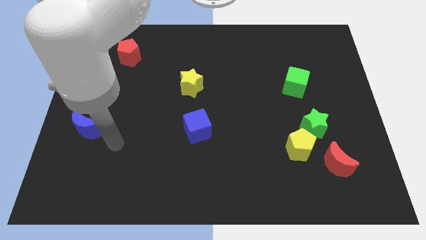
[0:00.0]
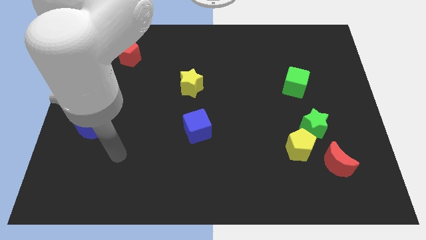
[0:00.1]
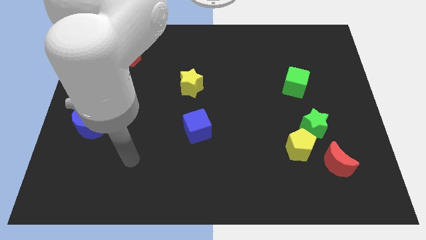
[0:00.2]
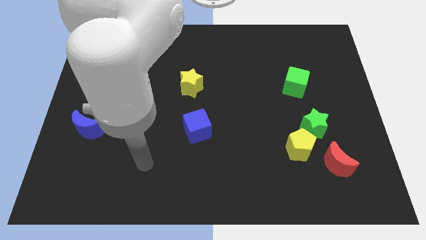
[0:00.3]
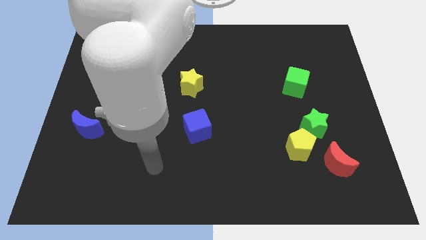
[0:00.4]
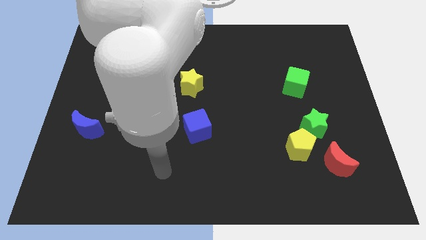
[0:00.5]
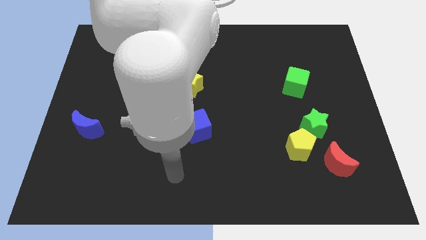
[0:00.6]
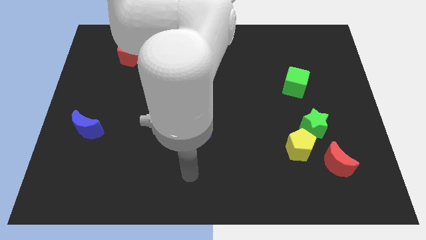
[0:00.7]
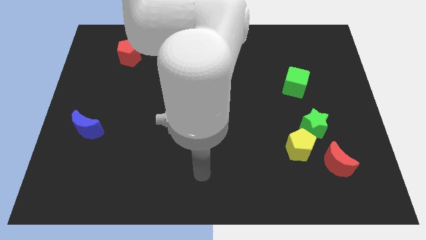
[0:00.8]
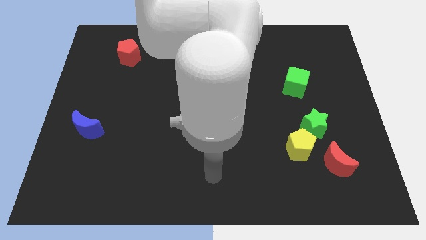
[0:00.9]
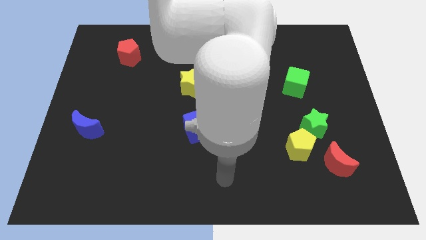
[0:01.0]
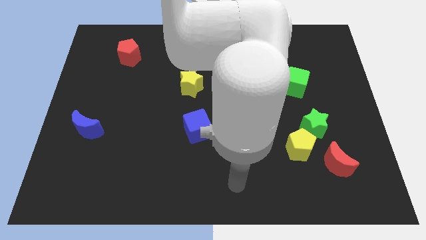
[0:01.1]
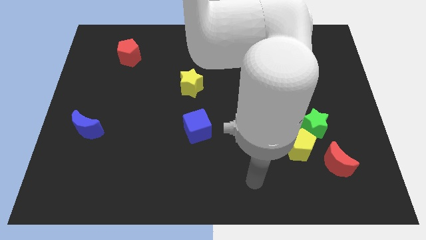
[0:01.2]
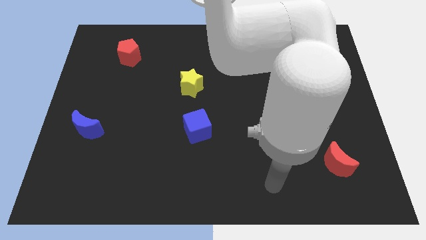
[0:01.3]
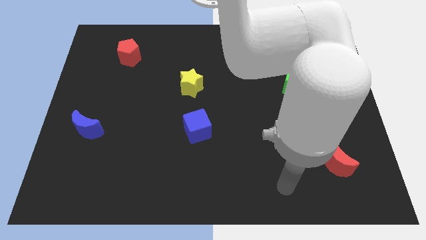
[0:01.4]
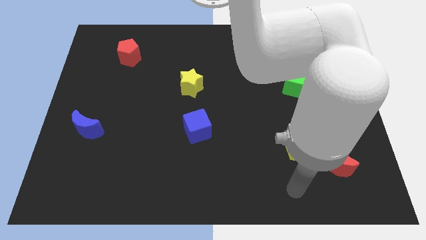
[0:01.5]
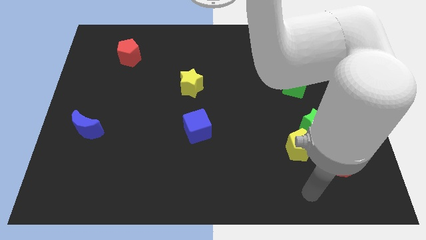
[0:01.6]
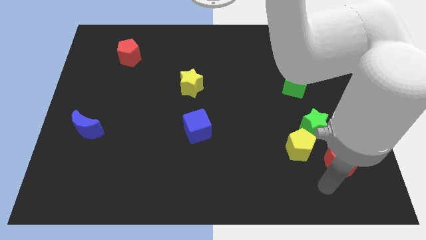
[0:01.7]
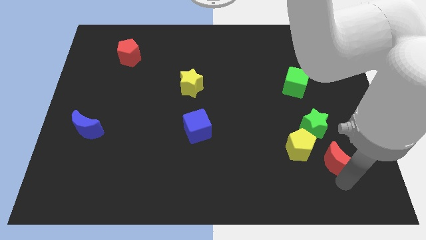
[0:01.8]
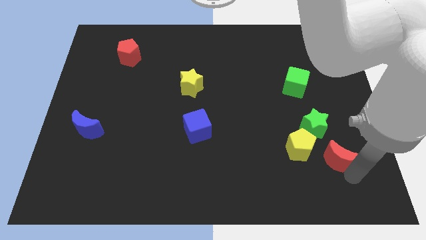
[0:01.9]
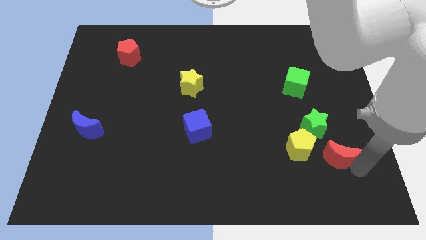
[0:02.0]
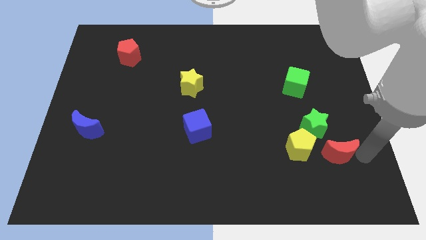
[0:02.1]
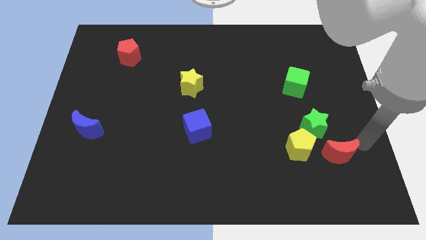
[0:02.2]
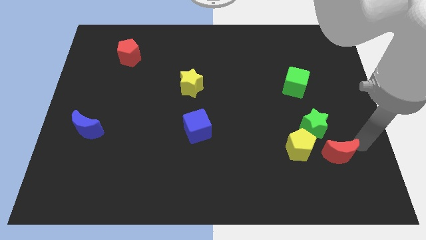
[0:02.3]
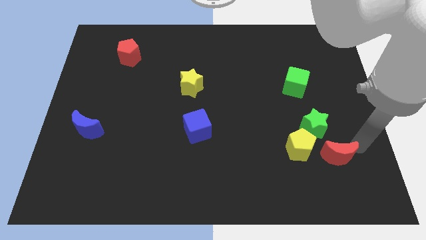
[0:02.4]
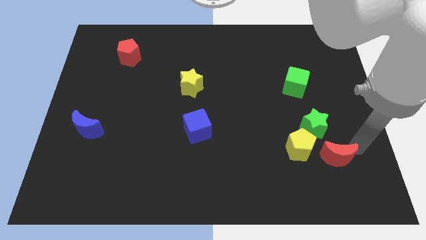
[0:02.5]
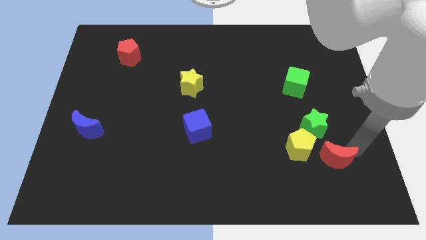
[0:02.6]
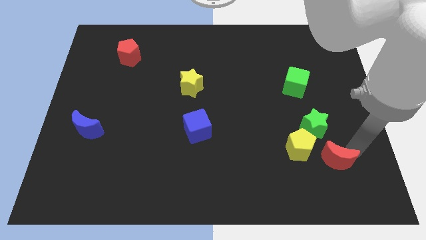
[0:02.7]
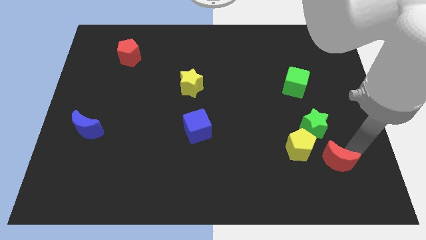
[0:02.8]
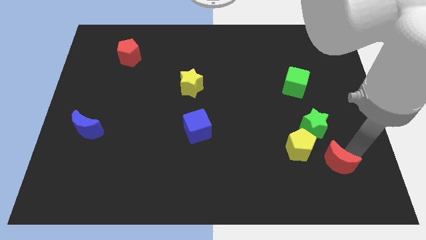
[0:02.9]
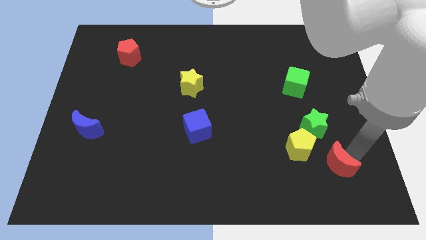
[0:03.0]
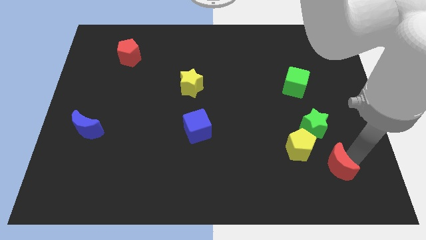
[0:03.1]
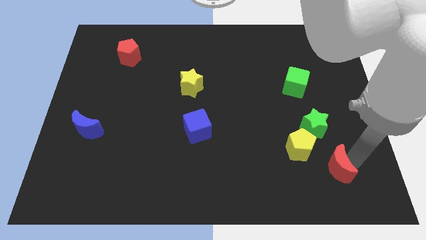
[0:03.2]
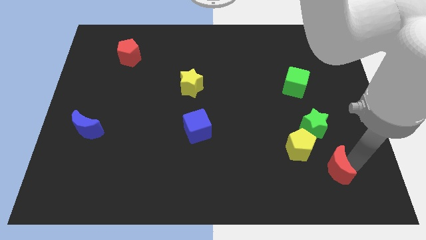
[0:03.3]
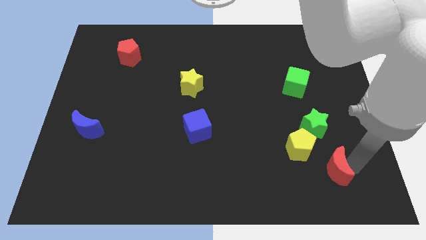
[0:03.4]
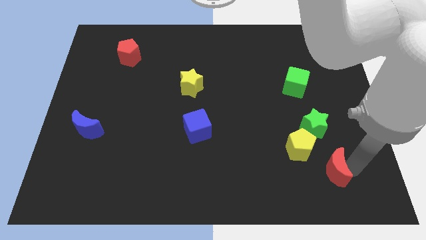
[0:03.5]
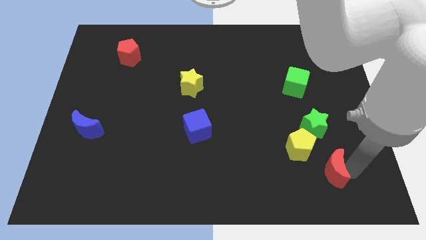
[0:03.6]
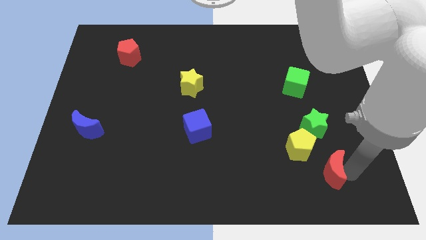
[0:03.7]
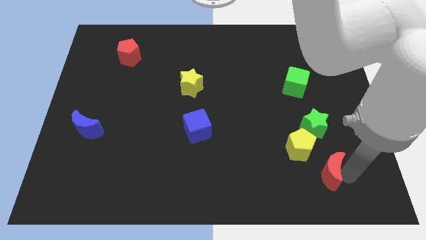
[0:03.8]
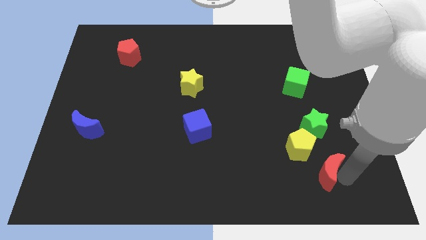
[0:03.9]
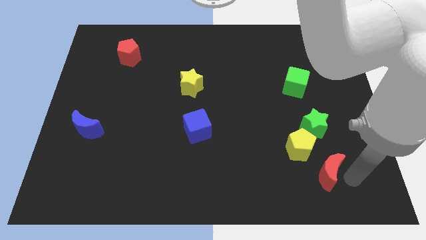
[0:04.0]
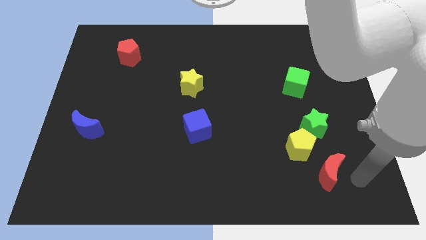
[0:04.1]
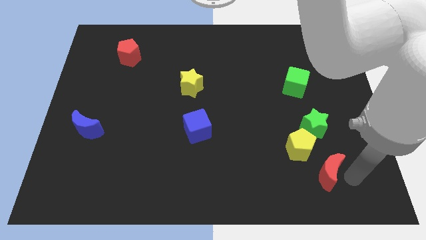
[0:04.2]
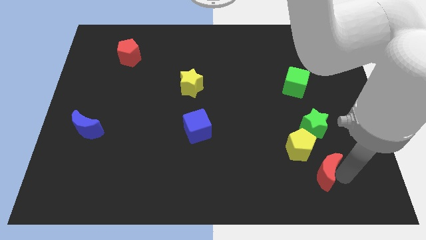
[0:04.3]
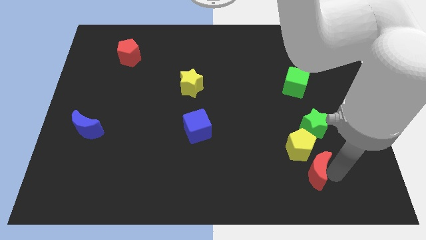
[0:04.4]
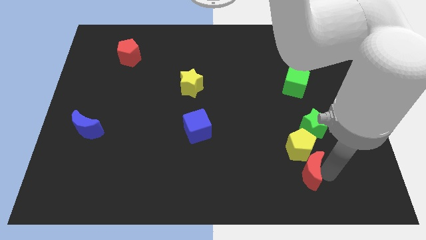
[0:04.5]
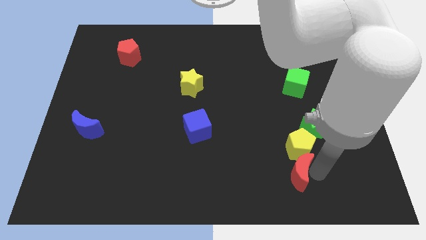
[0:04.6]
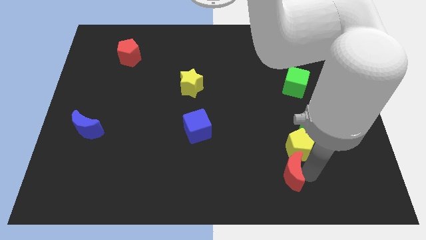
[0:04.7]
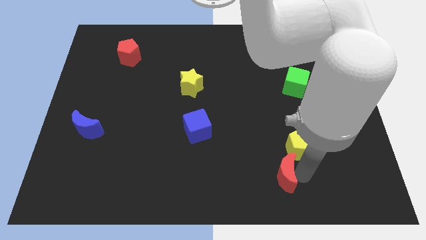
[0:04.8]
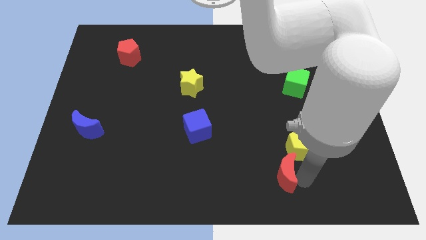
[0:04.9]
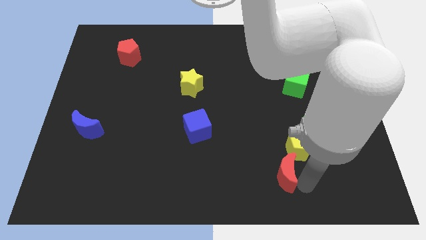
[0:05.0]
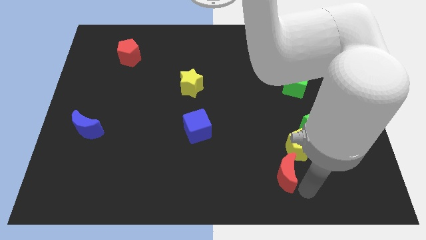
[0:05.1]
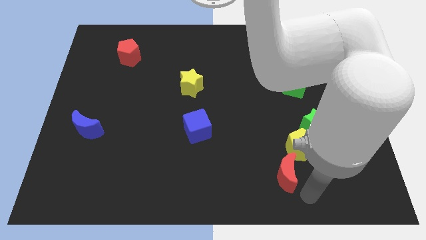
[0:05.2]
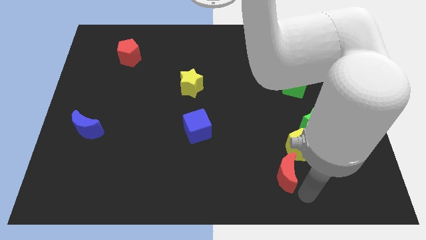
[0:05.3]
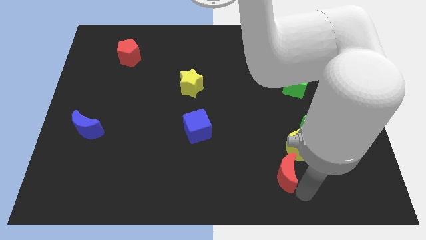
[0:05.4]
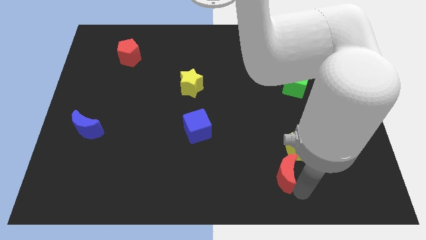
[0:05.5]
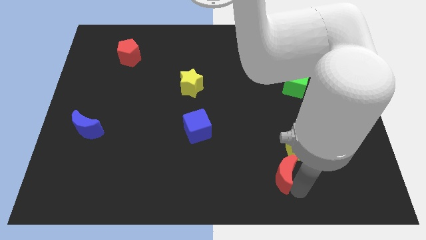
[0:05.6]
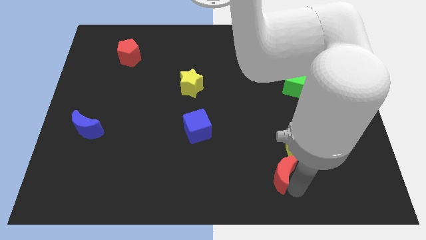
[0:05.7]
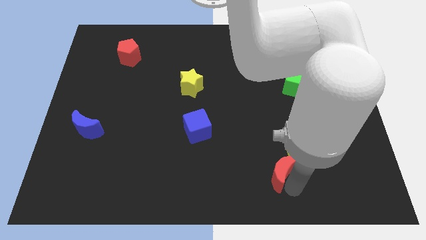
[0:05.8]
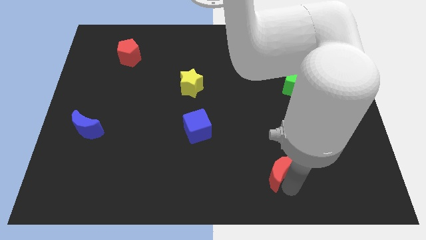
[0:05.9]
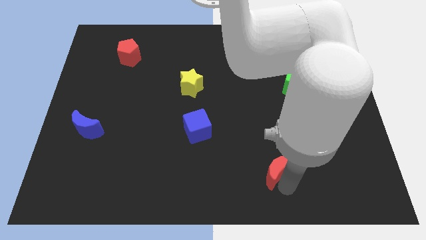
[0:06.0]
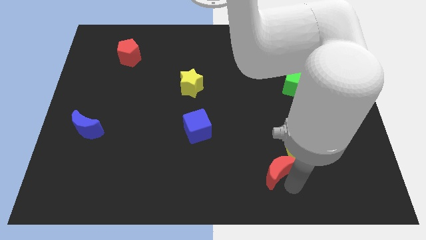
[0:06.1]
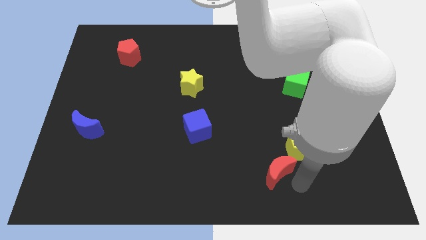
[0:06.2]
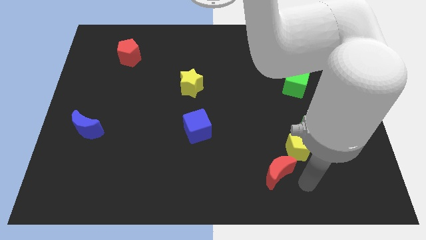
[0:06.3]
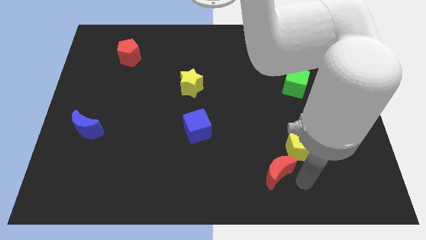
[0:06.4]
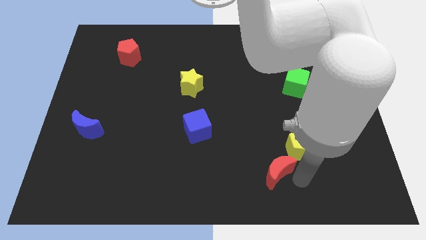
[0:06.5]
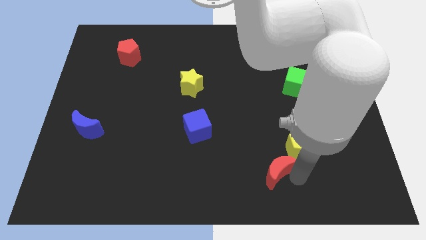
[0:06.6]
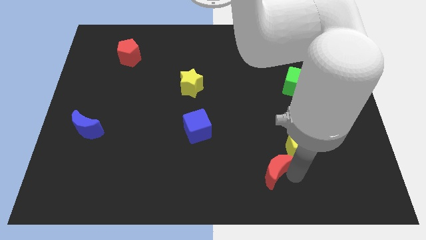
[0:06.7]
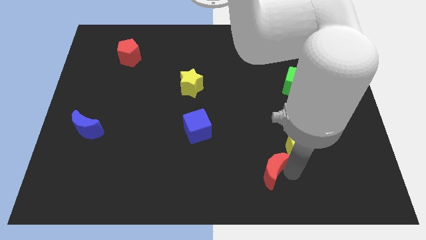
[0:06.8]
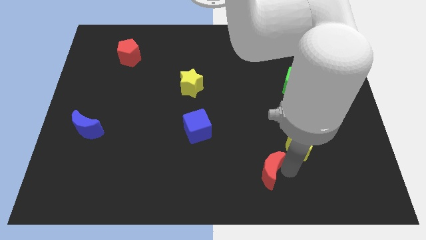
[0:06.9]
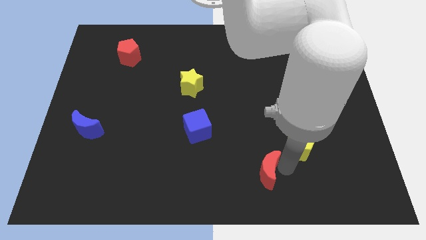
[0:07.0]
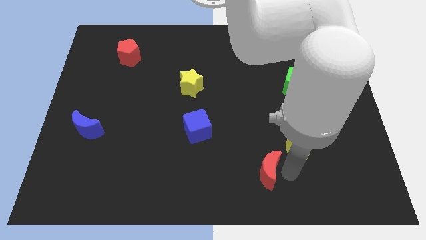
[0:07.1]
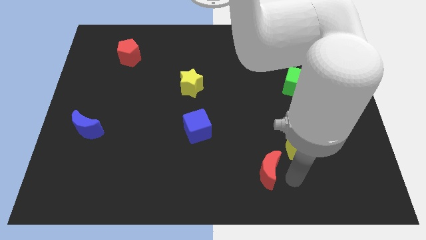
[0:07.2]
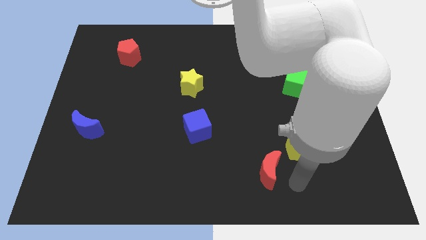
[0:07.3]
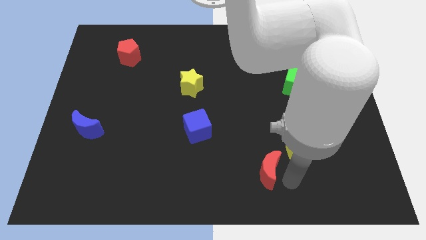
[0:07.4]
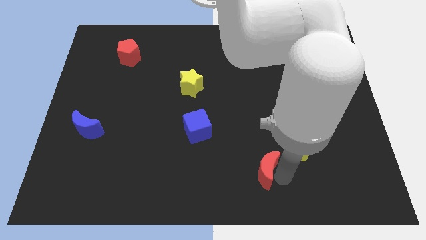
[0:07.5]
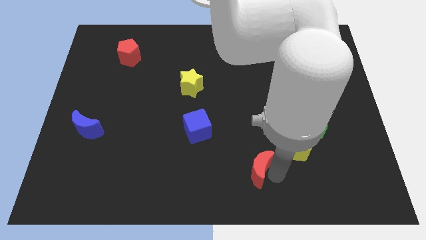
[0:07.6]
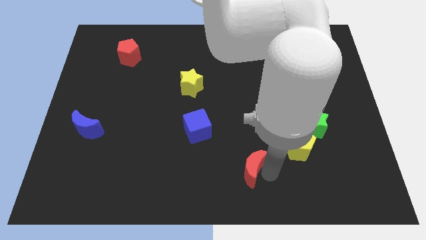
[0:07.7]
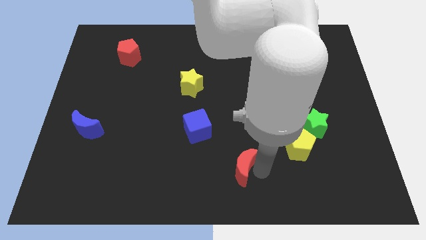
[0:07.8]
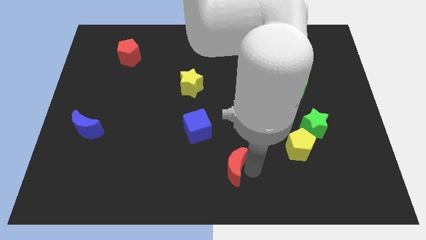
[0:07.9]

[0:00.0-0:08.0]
push the red moon left

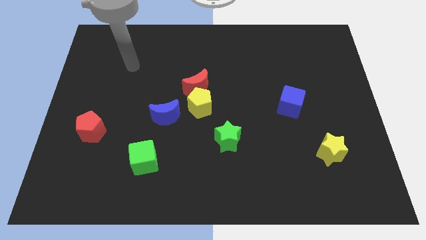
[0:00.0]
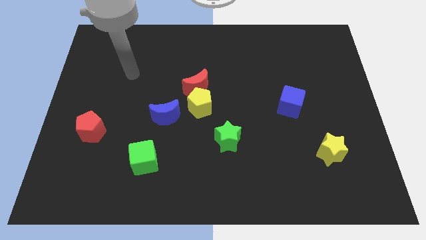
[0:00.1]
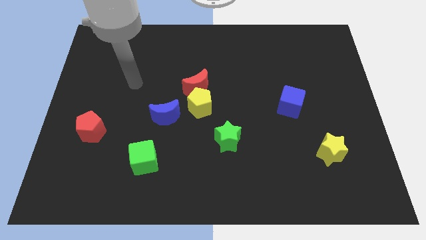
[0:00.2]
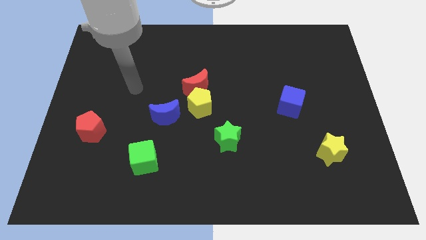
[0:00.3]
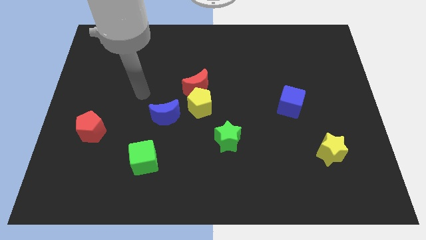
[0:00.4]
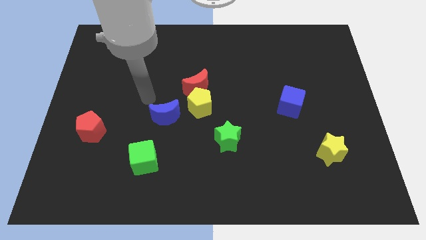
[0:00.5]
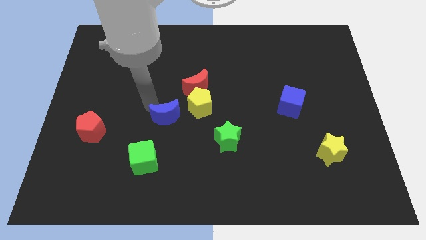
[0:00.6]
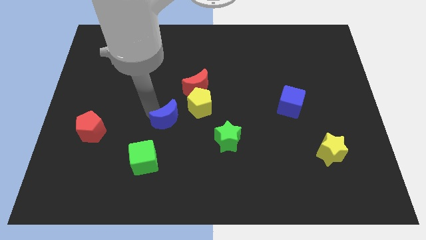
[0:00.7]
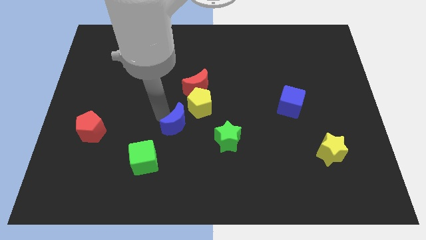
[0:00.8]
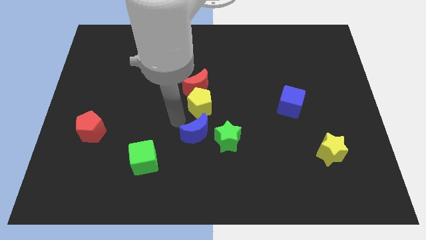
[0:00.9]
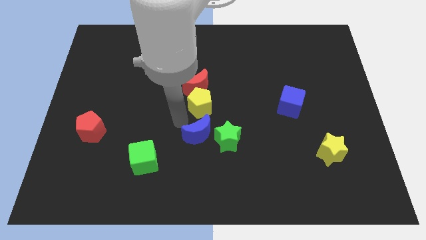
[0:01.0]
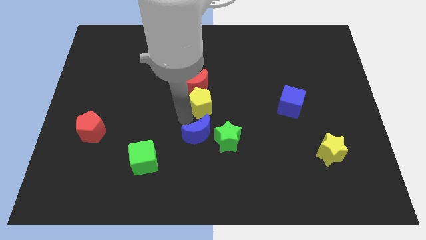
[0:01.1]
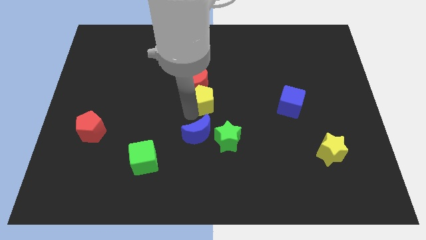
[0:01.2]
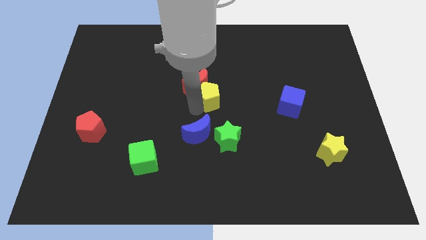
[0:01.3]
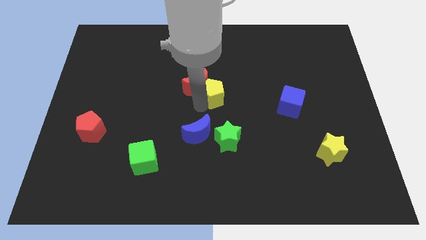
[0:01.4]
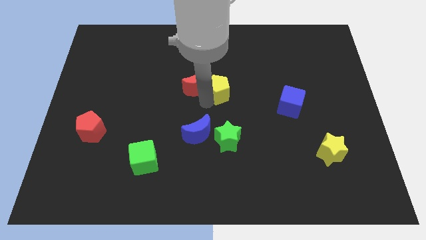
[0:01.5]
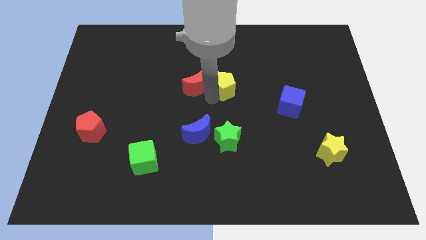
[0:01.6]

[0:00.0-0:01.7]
slightly move the yellow pentagon diagonally upwards and right
